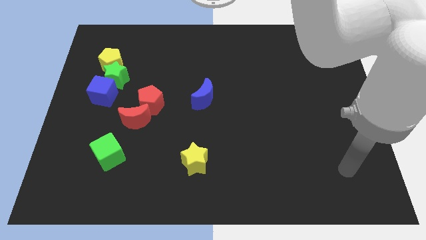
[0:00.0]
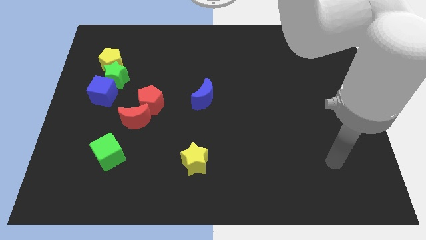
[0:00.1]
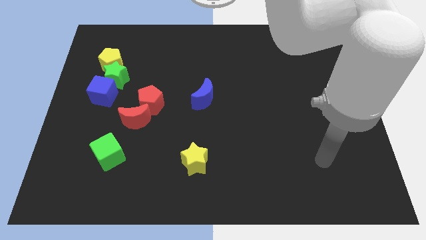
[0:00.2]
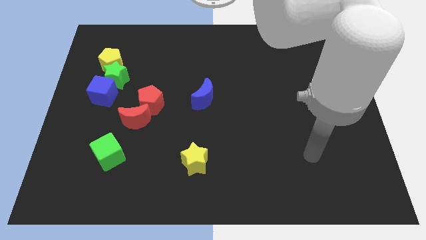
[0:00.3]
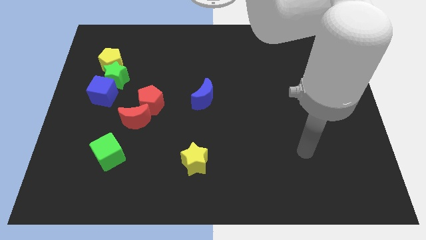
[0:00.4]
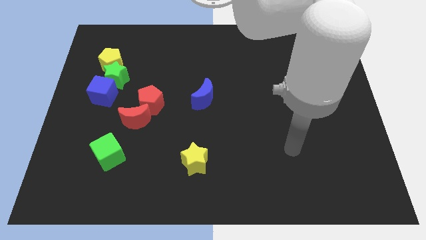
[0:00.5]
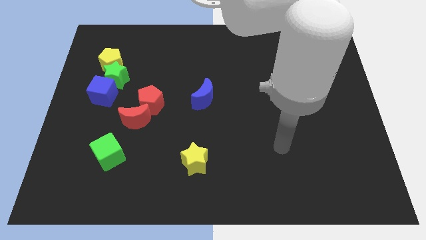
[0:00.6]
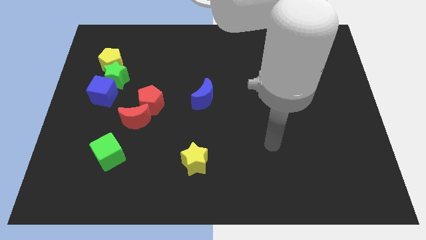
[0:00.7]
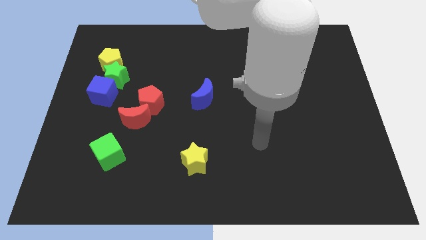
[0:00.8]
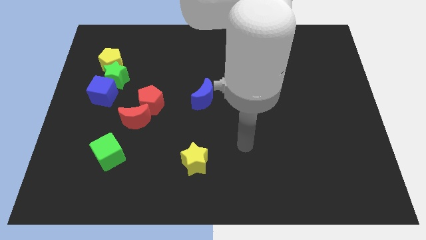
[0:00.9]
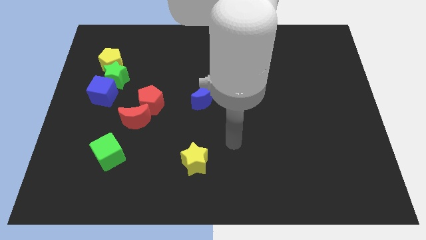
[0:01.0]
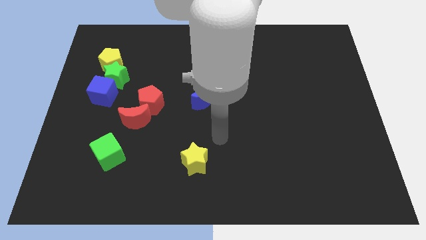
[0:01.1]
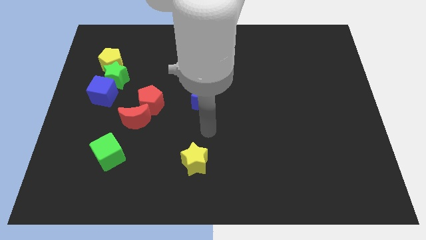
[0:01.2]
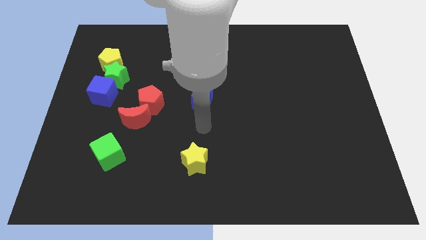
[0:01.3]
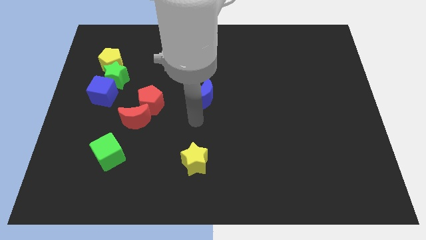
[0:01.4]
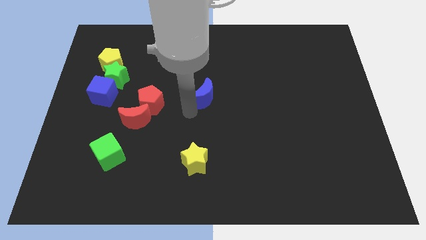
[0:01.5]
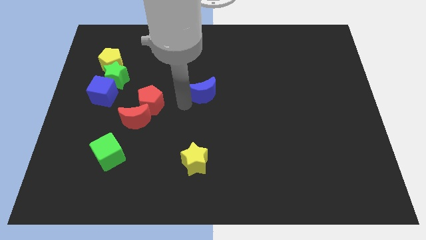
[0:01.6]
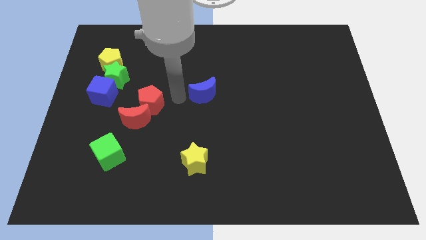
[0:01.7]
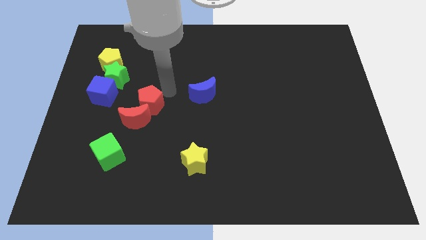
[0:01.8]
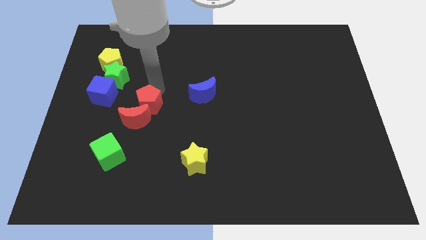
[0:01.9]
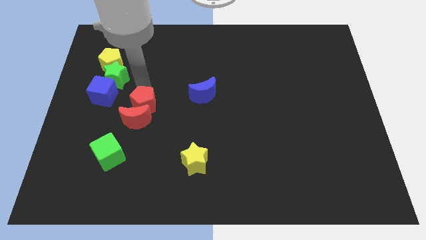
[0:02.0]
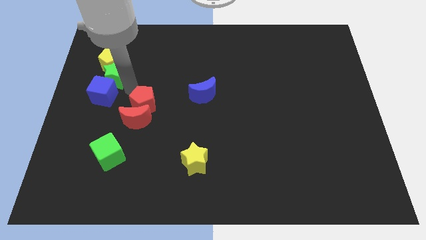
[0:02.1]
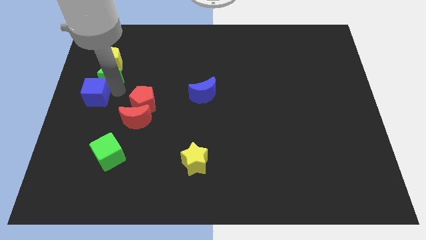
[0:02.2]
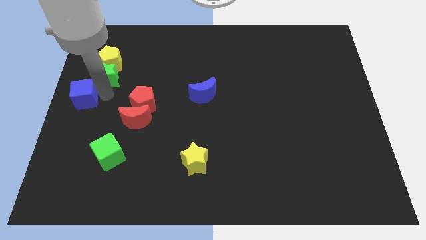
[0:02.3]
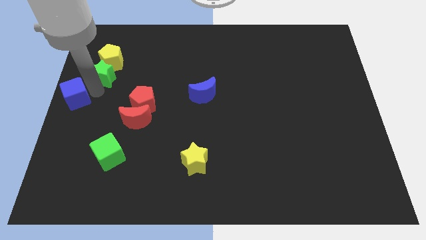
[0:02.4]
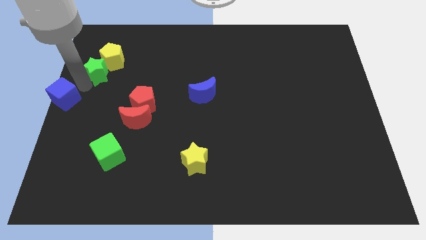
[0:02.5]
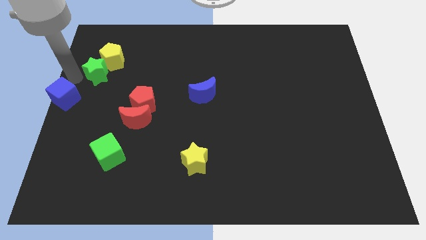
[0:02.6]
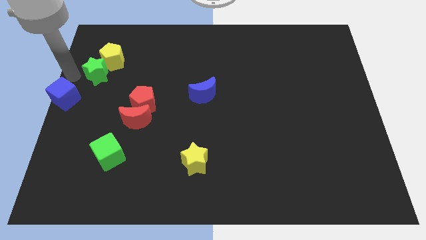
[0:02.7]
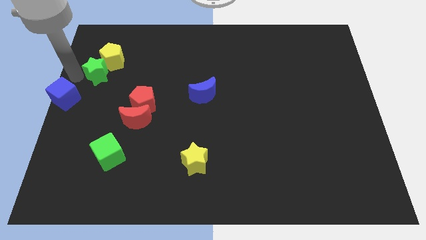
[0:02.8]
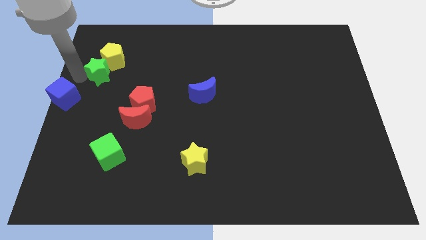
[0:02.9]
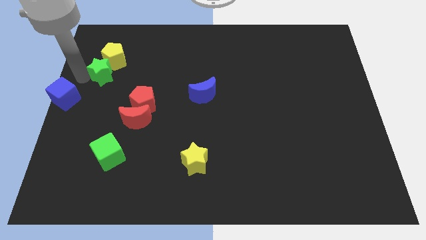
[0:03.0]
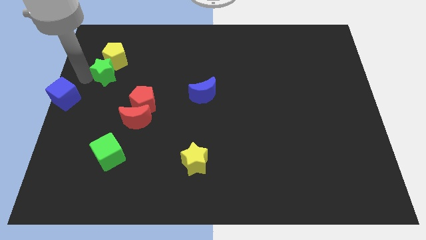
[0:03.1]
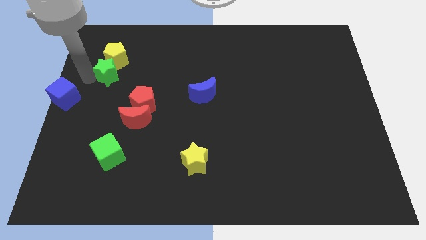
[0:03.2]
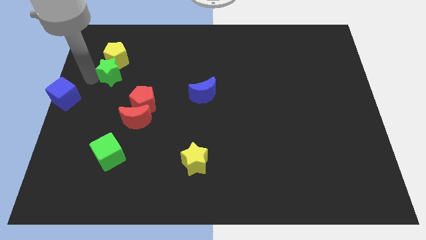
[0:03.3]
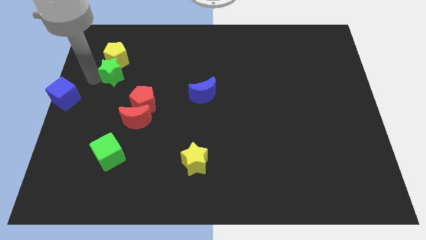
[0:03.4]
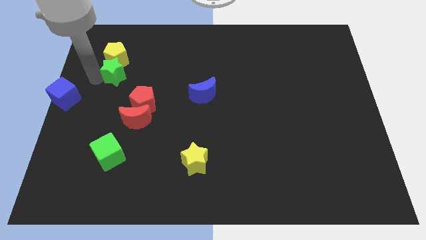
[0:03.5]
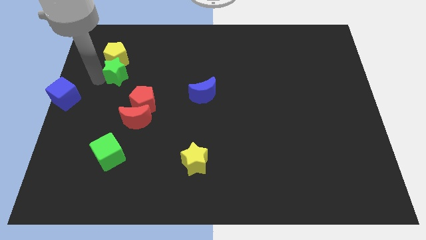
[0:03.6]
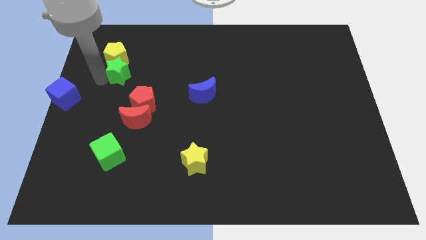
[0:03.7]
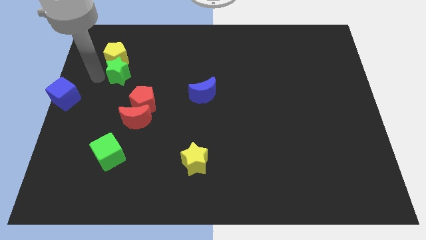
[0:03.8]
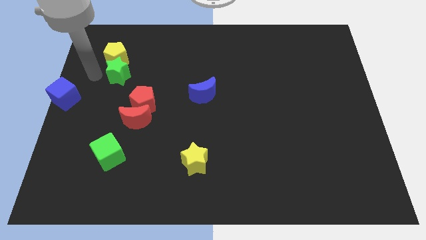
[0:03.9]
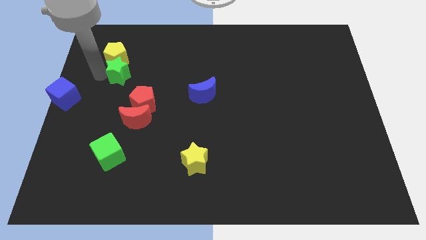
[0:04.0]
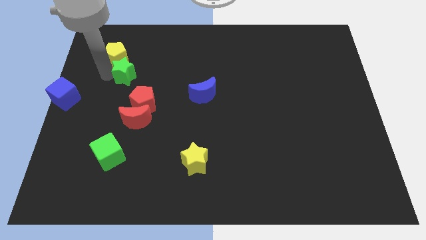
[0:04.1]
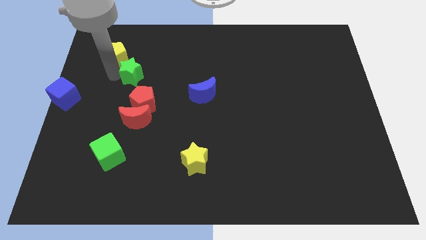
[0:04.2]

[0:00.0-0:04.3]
move the green star away from the yellow pentagon and blue cube

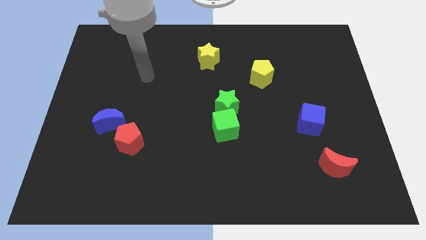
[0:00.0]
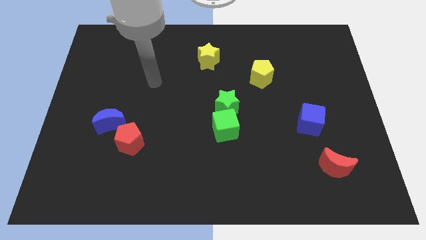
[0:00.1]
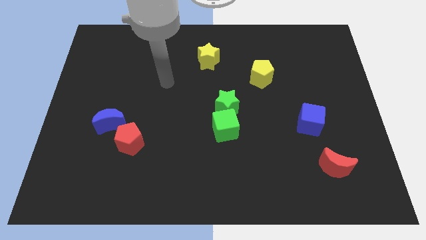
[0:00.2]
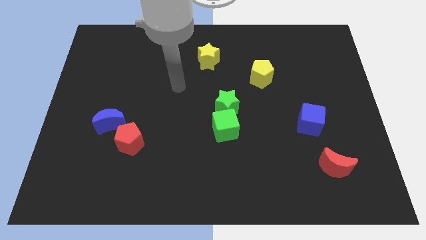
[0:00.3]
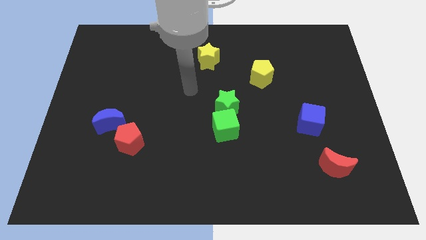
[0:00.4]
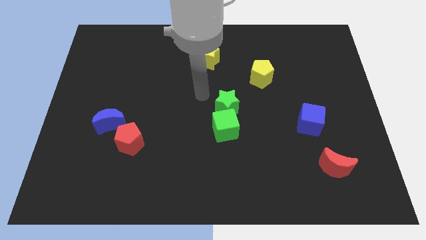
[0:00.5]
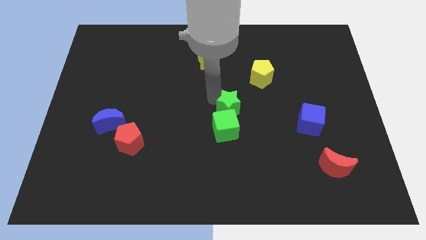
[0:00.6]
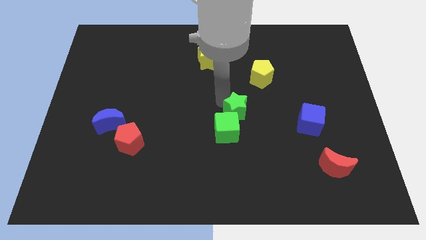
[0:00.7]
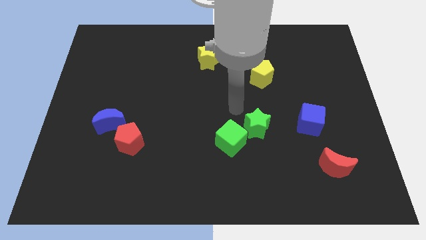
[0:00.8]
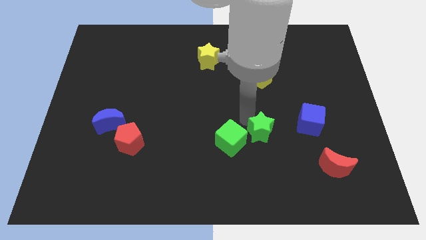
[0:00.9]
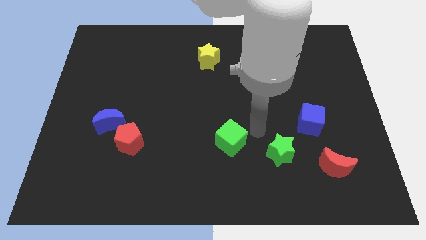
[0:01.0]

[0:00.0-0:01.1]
pull the green cube apart from the green star

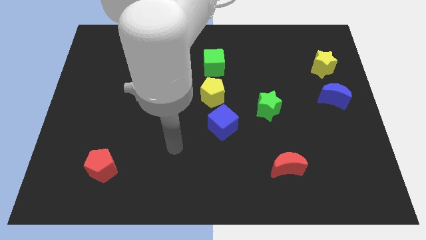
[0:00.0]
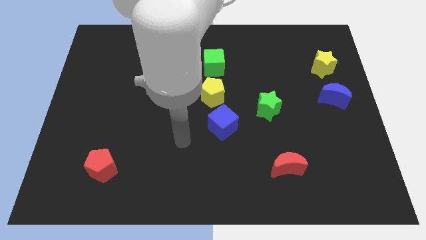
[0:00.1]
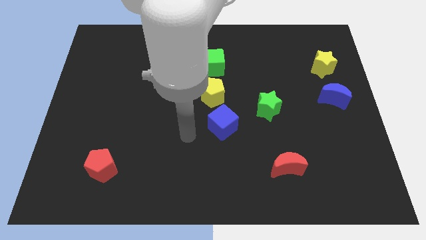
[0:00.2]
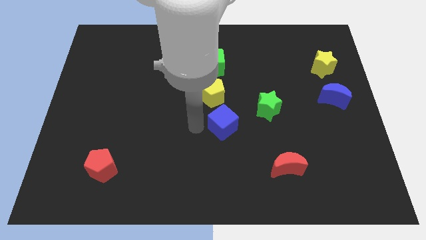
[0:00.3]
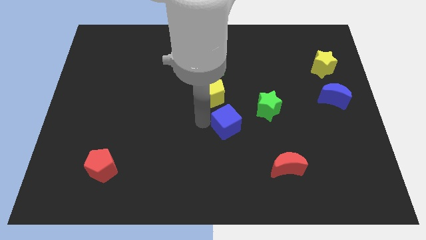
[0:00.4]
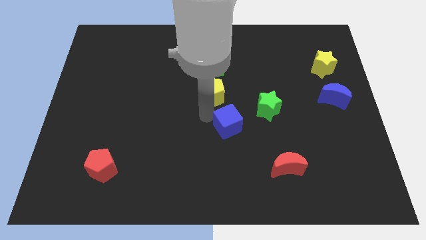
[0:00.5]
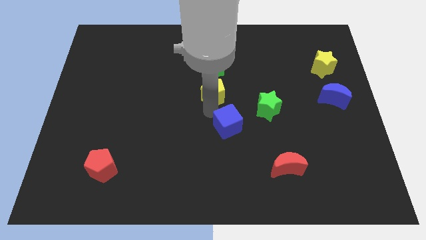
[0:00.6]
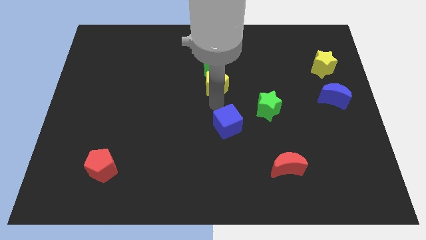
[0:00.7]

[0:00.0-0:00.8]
separate the blue cube from the yellow pentagon

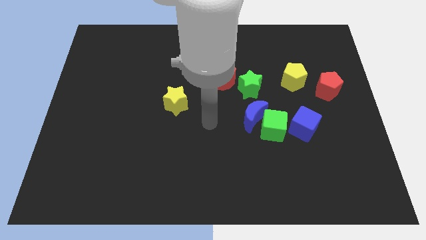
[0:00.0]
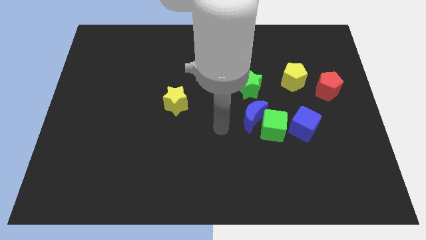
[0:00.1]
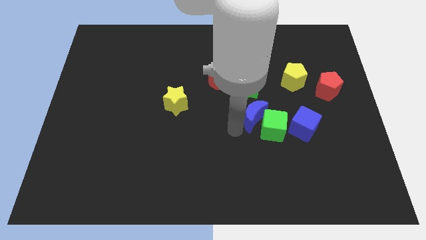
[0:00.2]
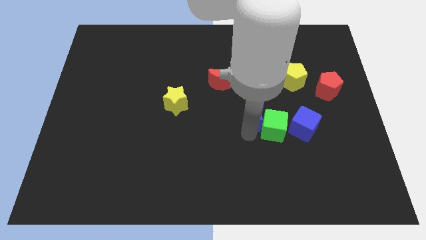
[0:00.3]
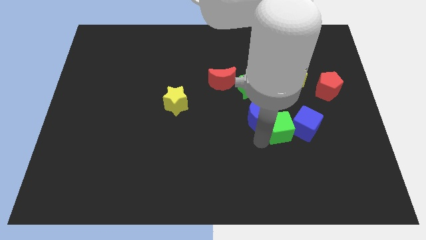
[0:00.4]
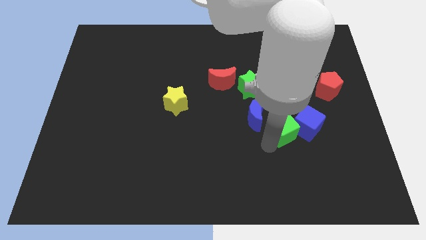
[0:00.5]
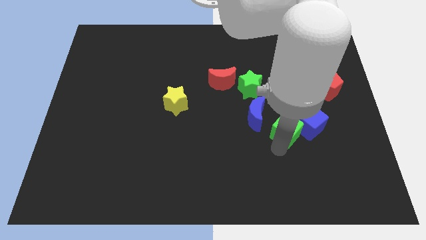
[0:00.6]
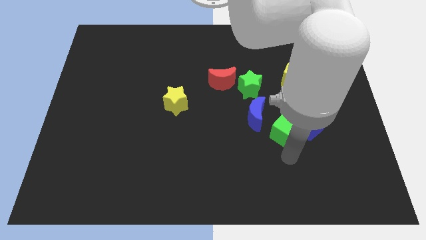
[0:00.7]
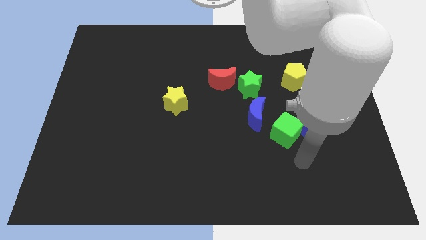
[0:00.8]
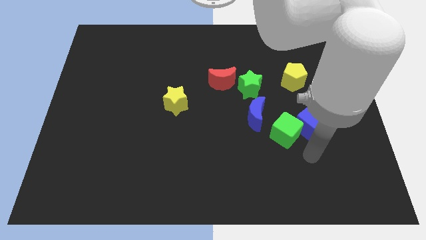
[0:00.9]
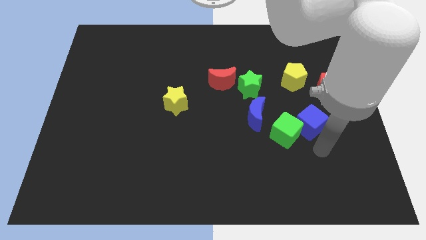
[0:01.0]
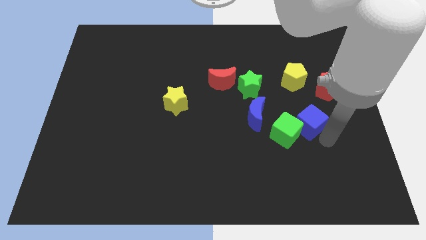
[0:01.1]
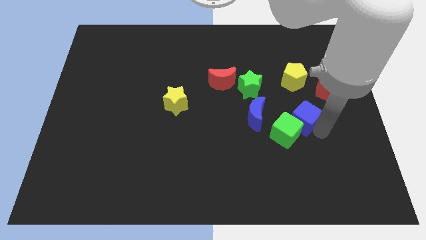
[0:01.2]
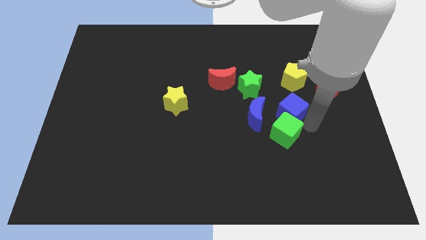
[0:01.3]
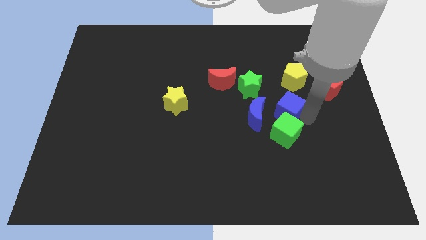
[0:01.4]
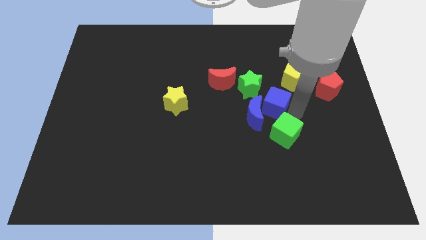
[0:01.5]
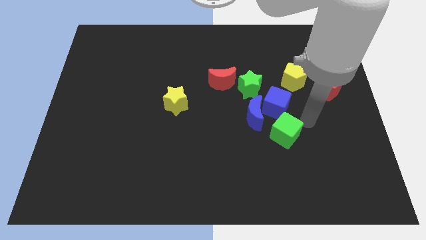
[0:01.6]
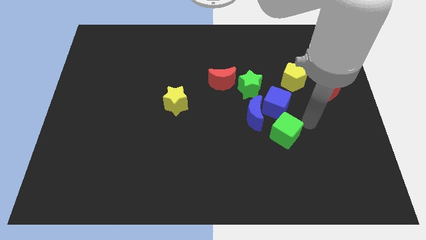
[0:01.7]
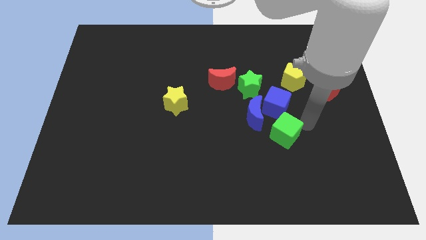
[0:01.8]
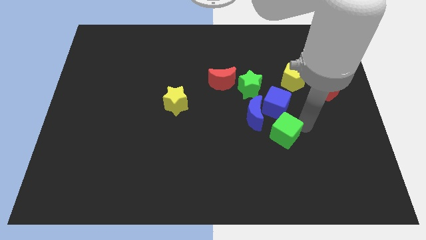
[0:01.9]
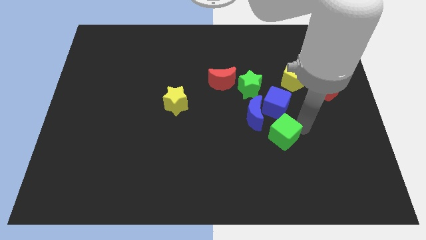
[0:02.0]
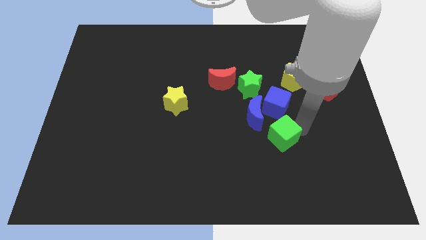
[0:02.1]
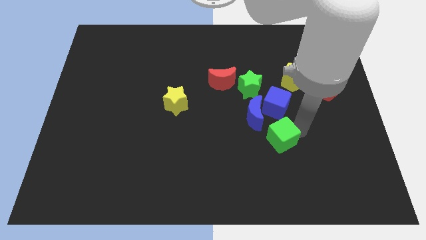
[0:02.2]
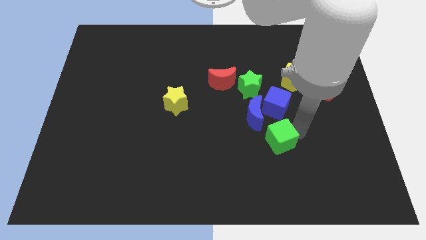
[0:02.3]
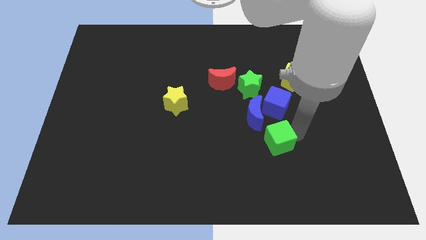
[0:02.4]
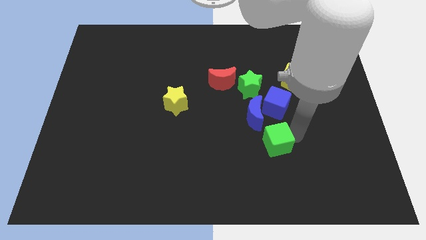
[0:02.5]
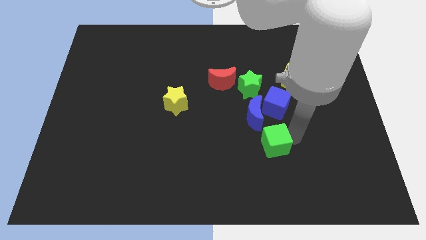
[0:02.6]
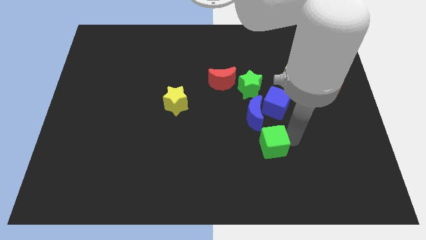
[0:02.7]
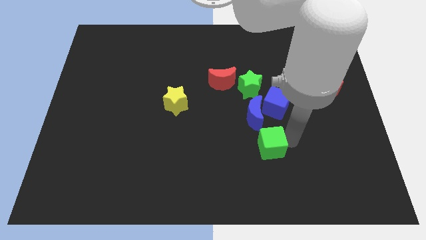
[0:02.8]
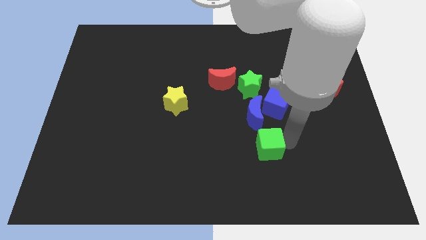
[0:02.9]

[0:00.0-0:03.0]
pull the green cube apart from the blue moon and blue cube

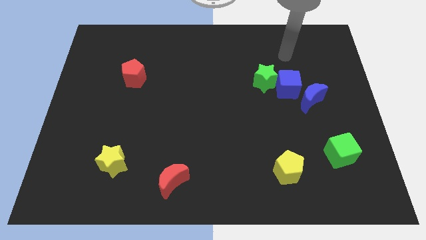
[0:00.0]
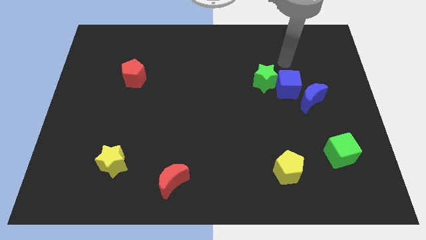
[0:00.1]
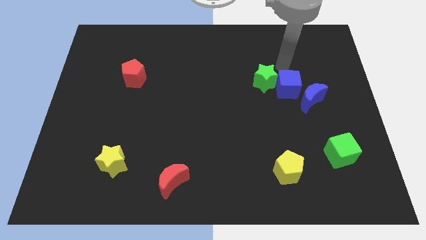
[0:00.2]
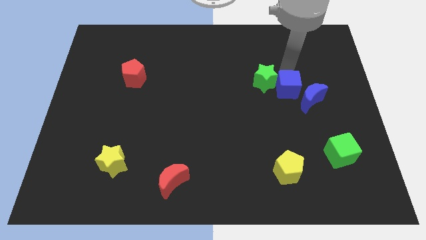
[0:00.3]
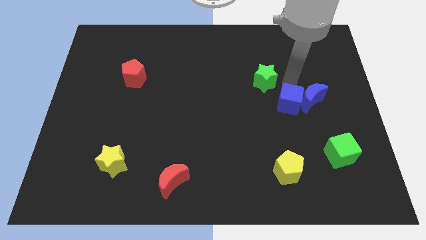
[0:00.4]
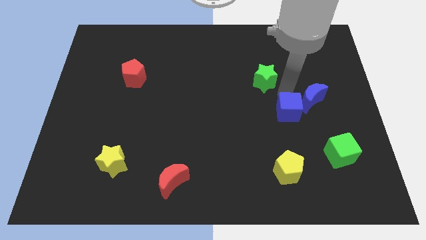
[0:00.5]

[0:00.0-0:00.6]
move the green star away from the blue cube
